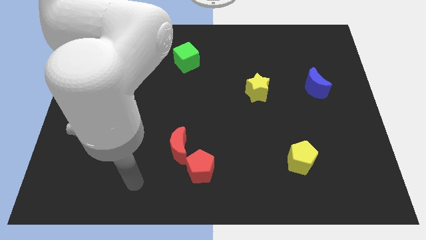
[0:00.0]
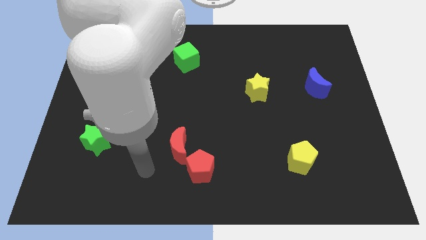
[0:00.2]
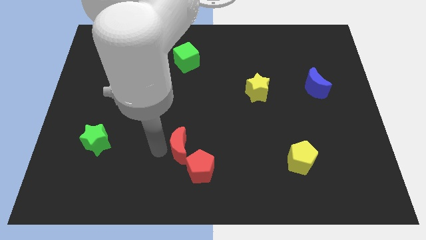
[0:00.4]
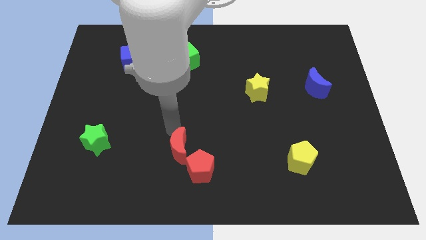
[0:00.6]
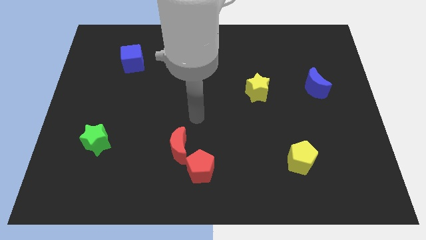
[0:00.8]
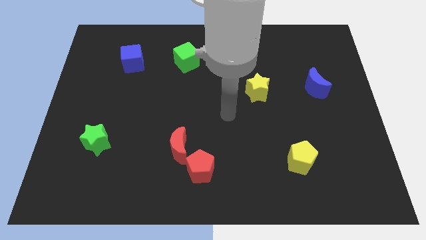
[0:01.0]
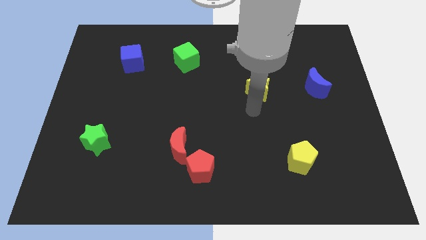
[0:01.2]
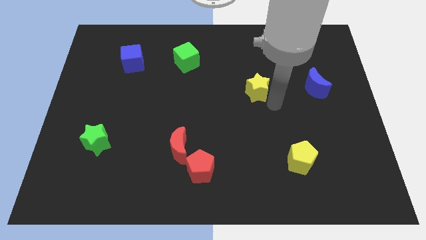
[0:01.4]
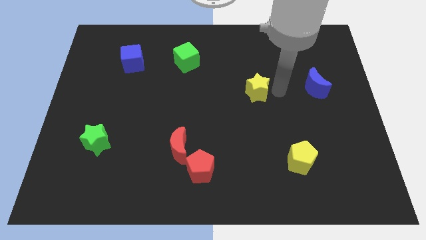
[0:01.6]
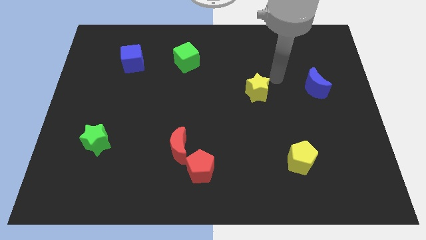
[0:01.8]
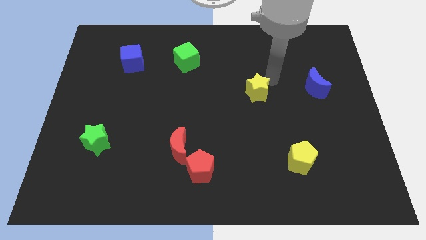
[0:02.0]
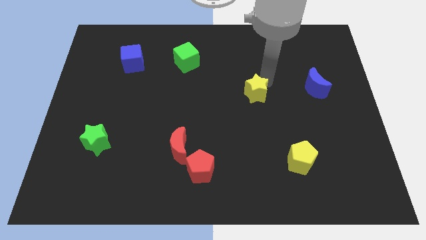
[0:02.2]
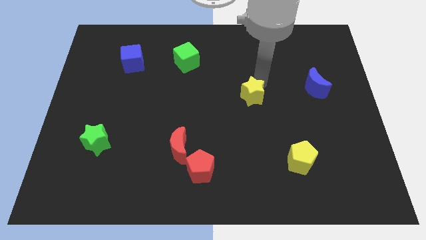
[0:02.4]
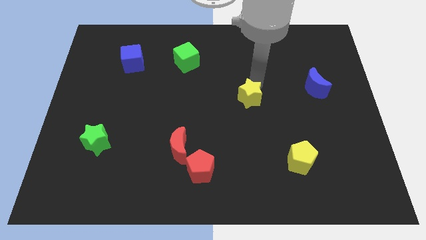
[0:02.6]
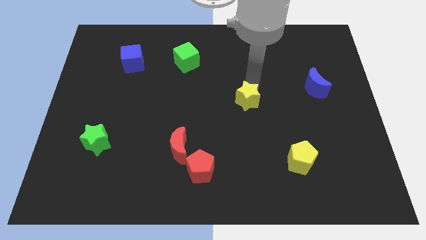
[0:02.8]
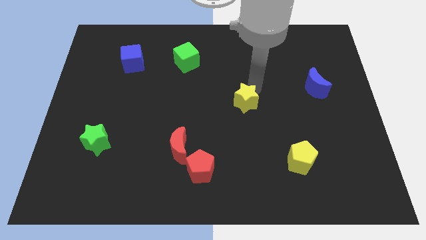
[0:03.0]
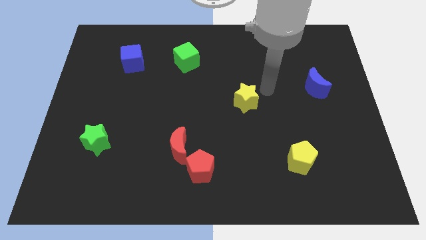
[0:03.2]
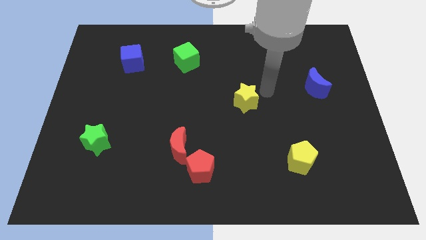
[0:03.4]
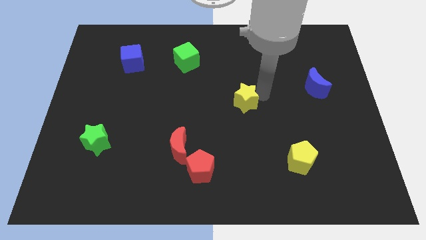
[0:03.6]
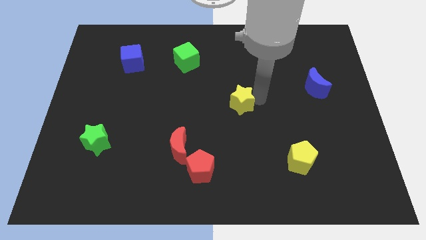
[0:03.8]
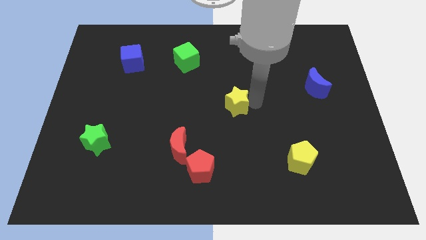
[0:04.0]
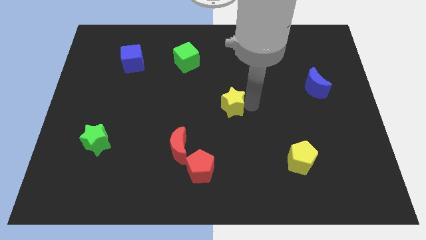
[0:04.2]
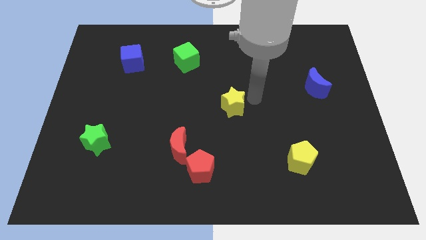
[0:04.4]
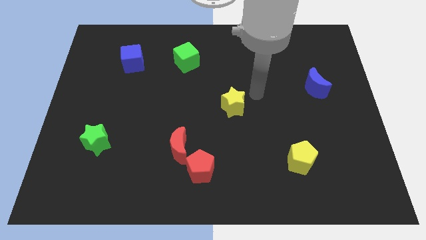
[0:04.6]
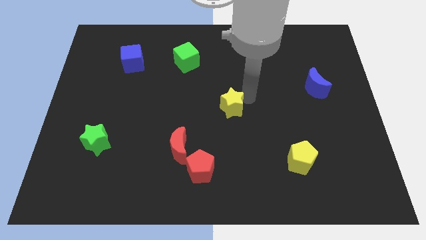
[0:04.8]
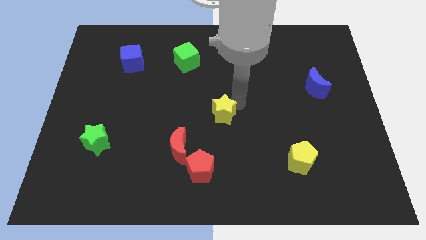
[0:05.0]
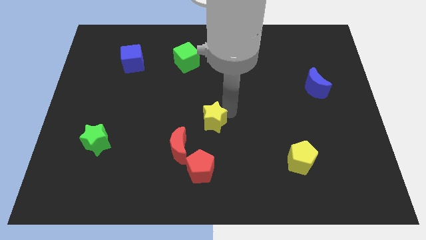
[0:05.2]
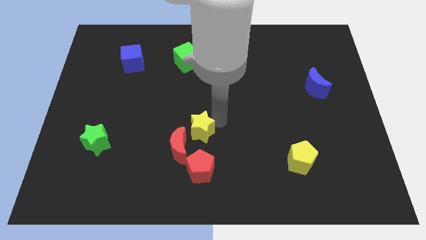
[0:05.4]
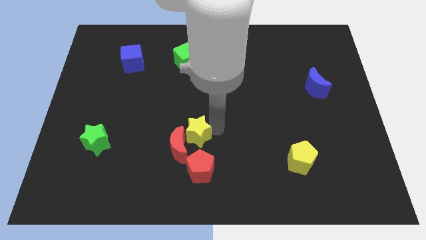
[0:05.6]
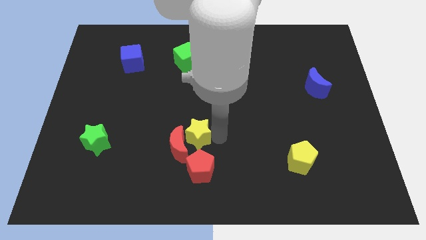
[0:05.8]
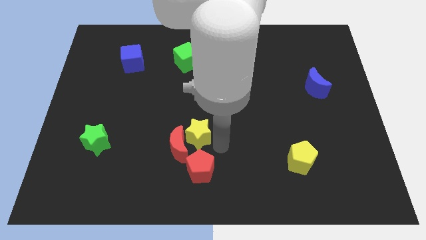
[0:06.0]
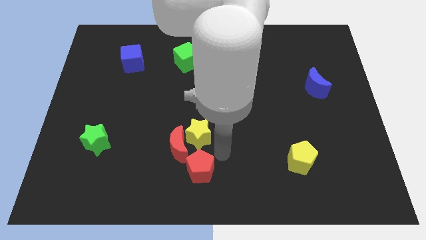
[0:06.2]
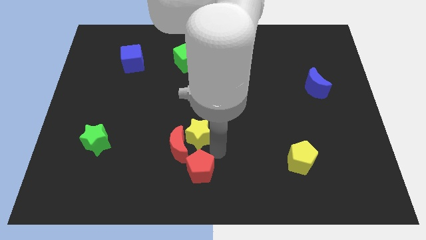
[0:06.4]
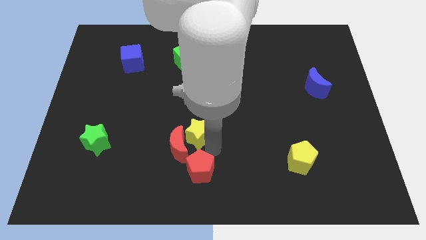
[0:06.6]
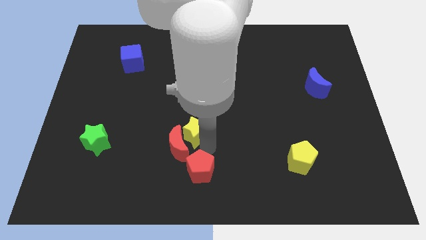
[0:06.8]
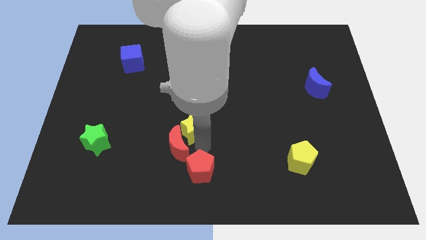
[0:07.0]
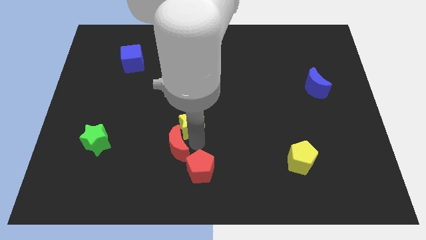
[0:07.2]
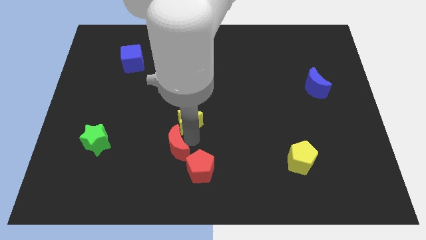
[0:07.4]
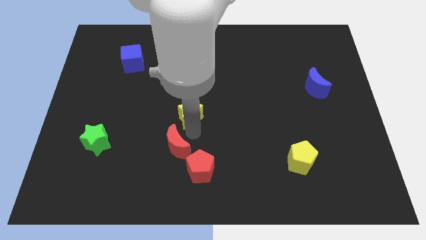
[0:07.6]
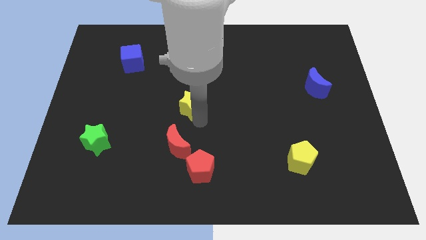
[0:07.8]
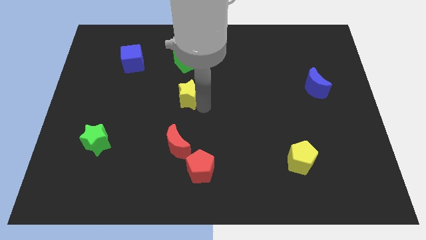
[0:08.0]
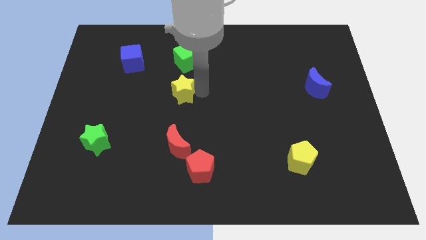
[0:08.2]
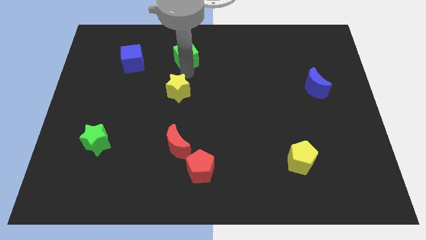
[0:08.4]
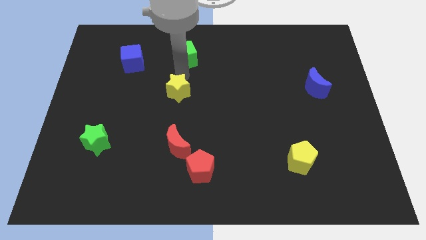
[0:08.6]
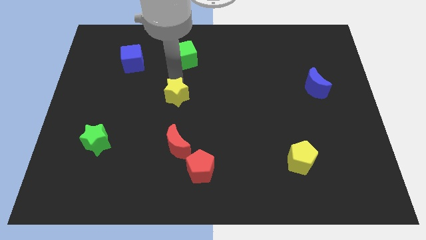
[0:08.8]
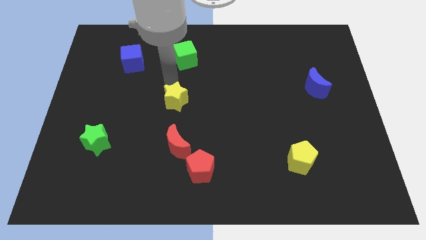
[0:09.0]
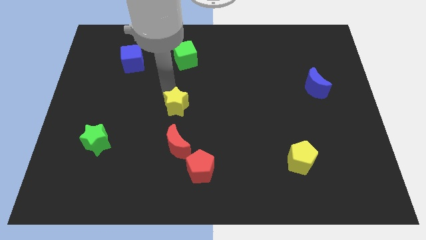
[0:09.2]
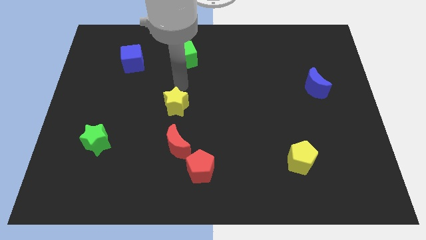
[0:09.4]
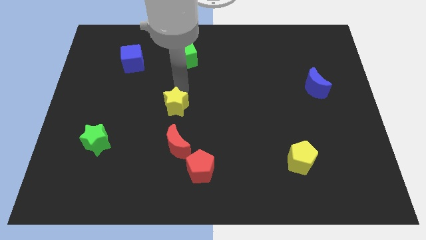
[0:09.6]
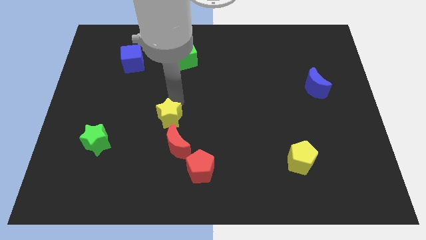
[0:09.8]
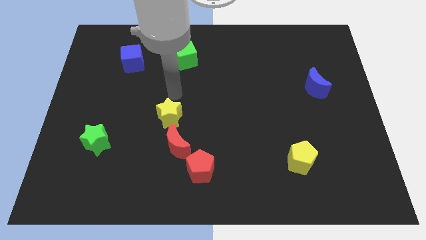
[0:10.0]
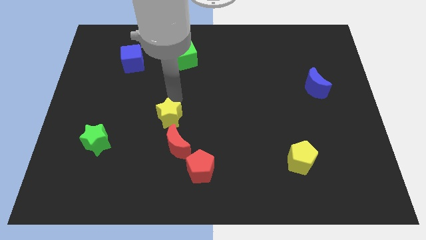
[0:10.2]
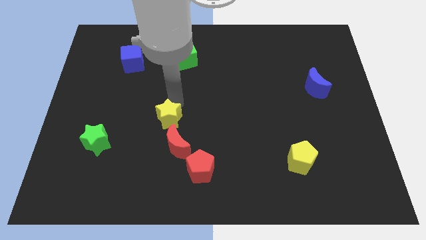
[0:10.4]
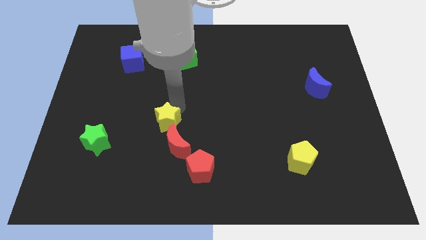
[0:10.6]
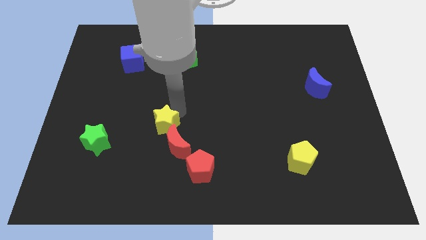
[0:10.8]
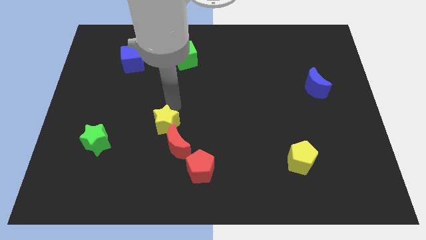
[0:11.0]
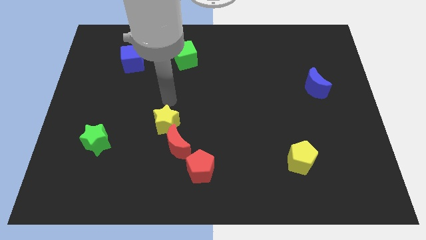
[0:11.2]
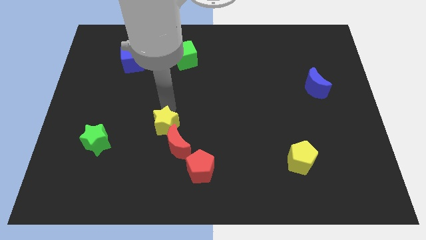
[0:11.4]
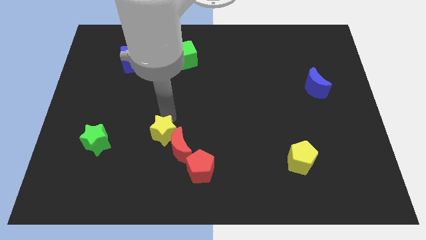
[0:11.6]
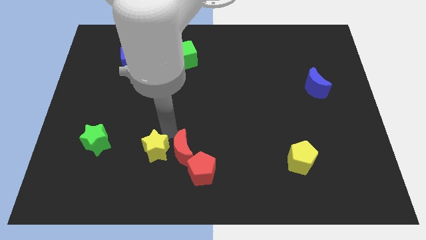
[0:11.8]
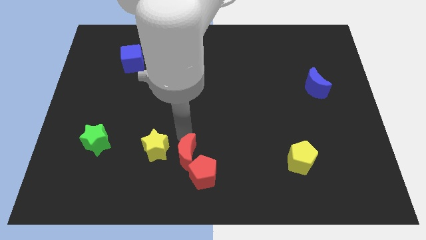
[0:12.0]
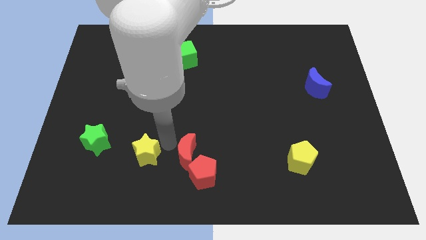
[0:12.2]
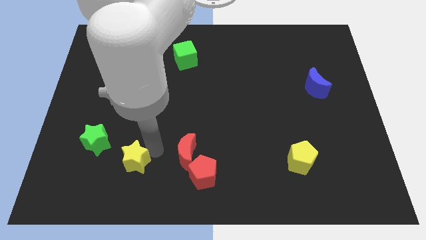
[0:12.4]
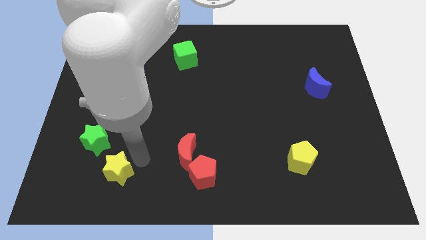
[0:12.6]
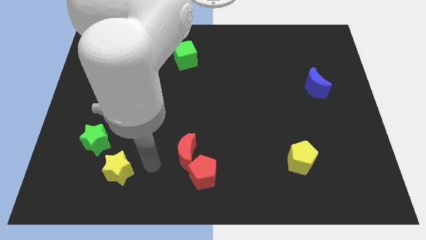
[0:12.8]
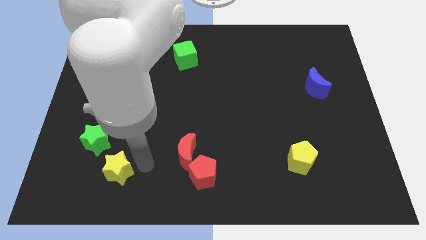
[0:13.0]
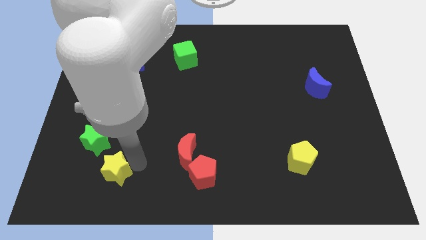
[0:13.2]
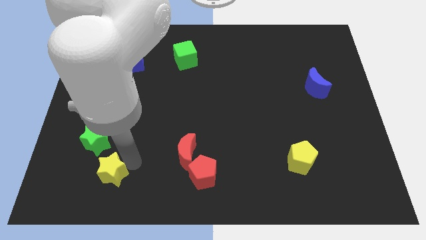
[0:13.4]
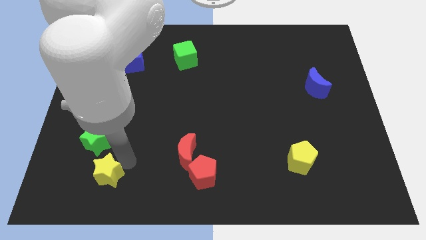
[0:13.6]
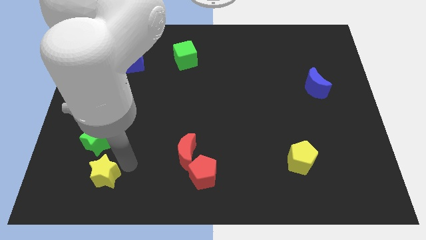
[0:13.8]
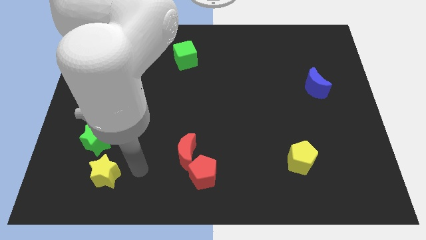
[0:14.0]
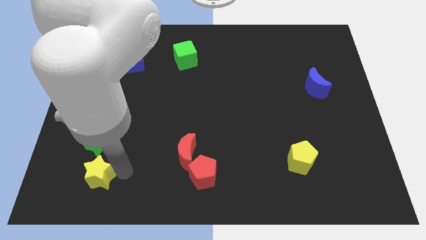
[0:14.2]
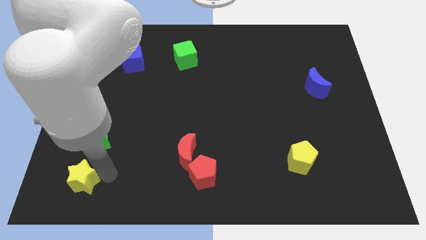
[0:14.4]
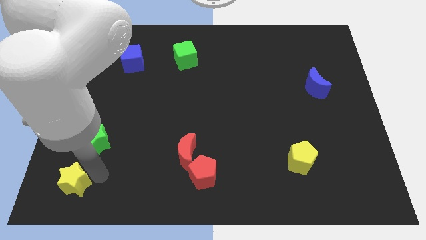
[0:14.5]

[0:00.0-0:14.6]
put the yellow star to the lower left corner
